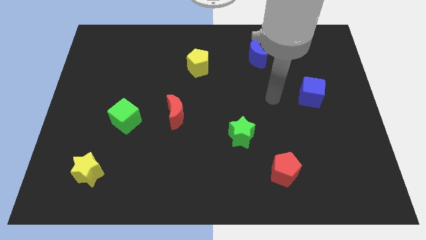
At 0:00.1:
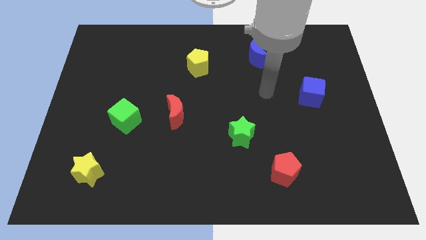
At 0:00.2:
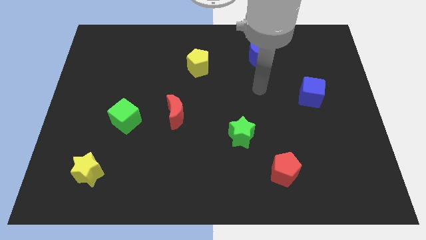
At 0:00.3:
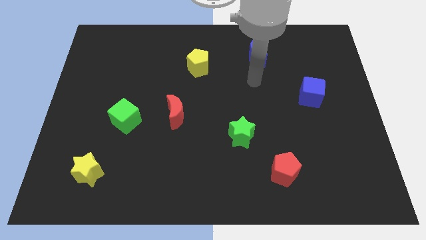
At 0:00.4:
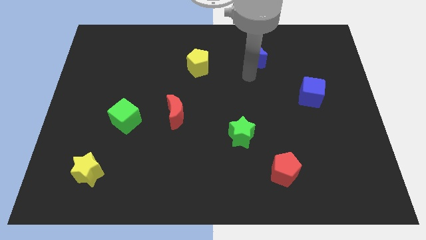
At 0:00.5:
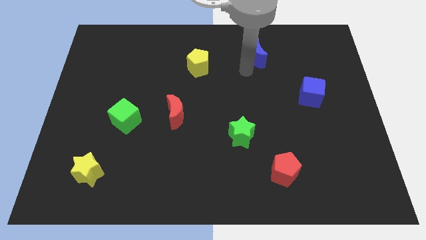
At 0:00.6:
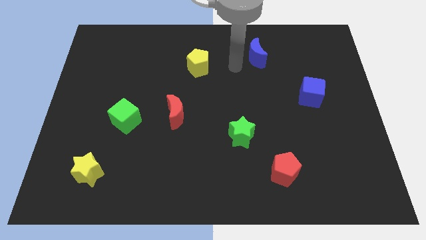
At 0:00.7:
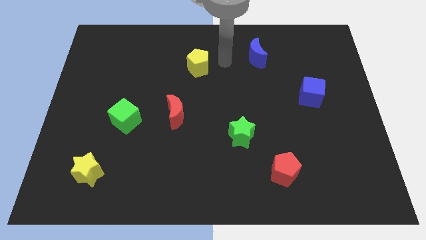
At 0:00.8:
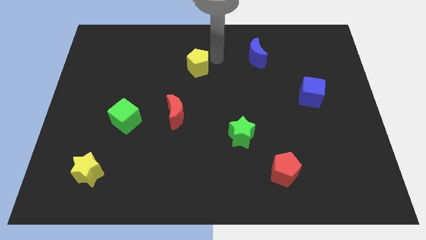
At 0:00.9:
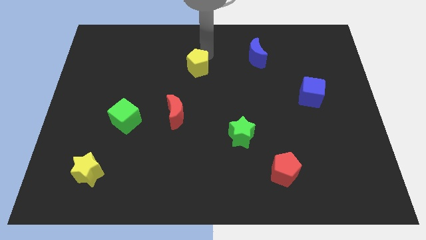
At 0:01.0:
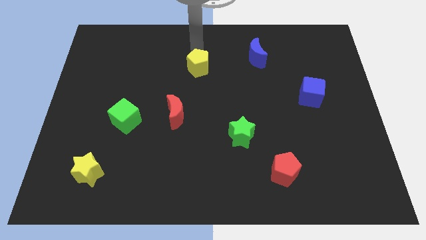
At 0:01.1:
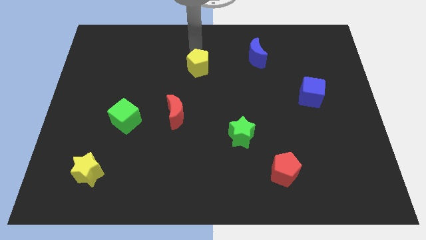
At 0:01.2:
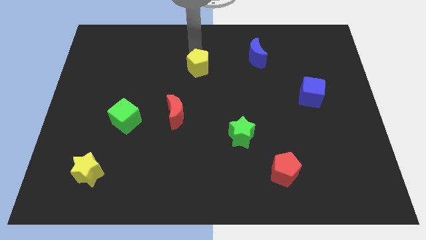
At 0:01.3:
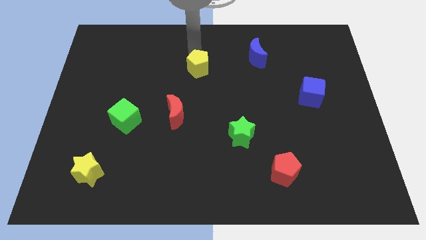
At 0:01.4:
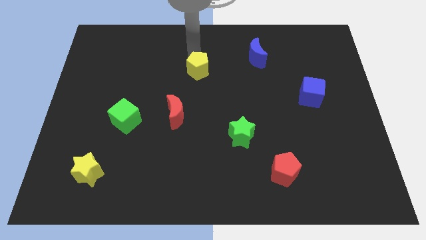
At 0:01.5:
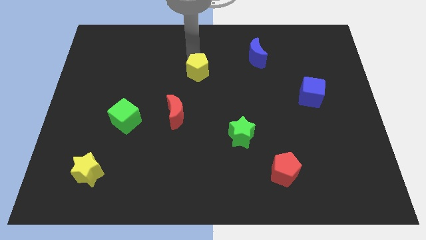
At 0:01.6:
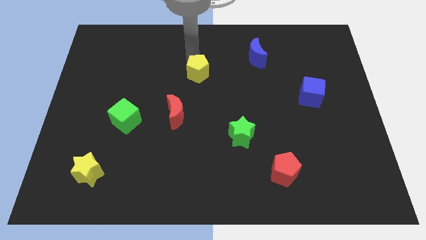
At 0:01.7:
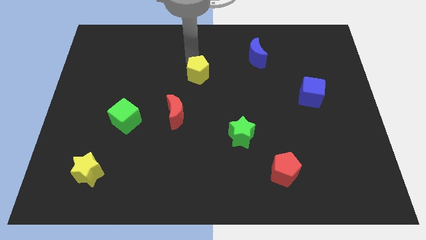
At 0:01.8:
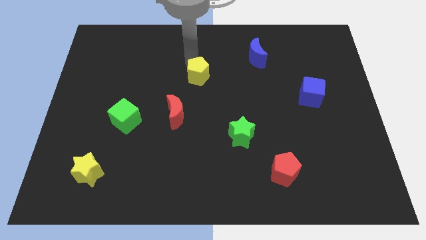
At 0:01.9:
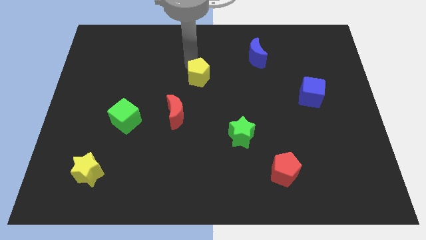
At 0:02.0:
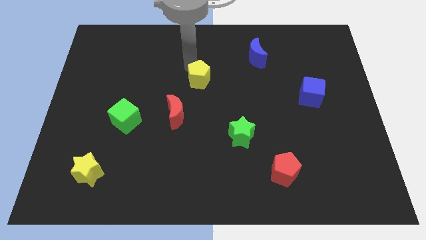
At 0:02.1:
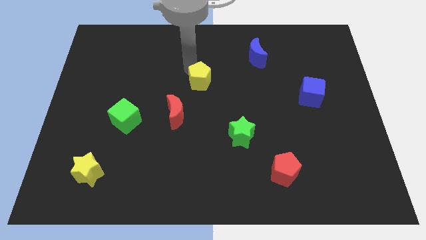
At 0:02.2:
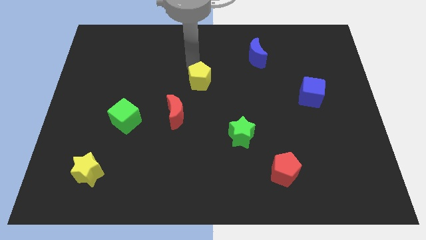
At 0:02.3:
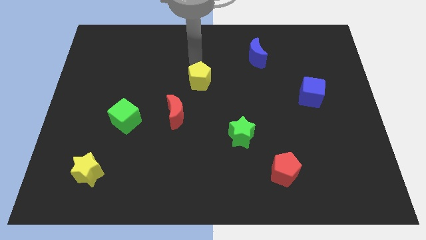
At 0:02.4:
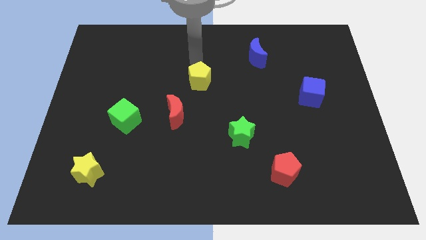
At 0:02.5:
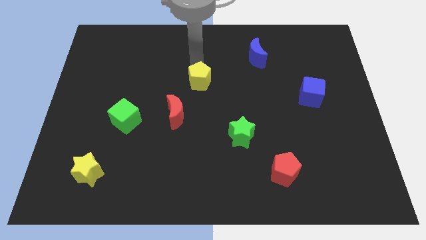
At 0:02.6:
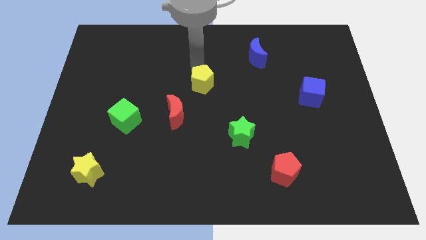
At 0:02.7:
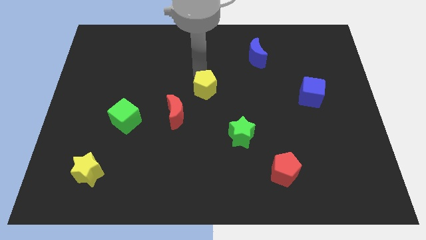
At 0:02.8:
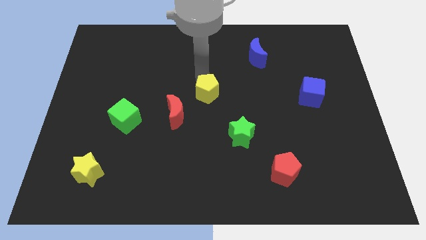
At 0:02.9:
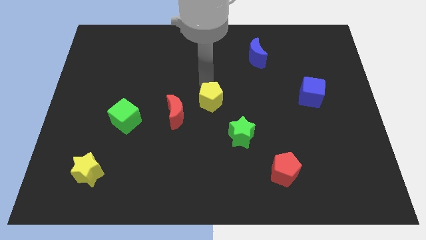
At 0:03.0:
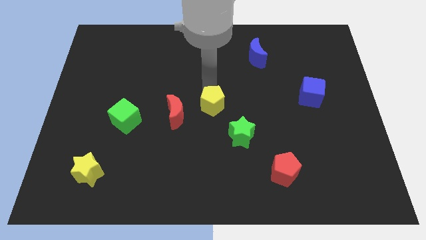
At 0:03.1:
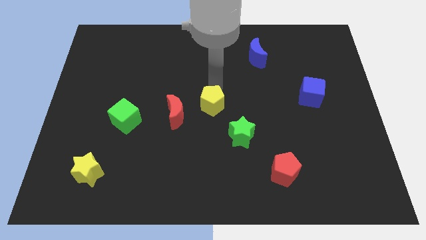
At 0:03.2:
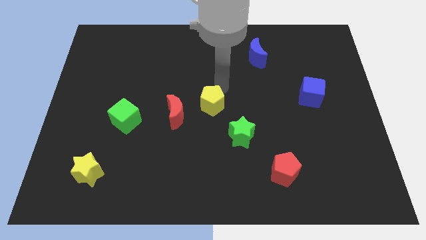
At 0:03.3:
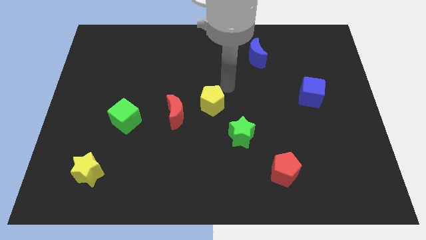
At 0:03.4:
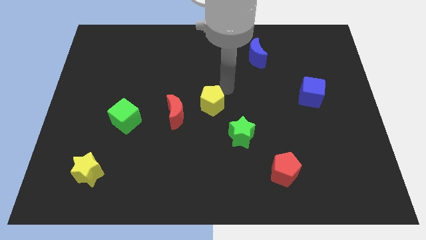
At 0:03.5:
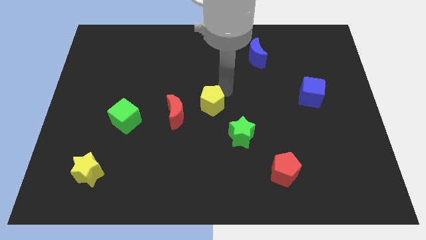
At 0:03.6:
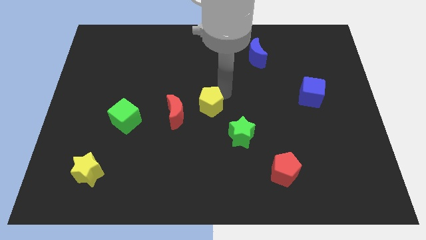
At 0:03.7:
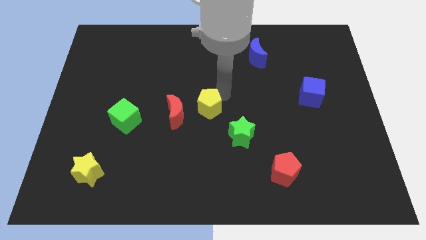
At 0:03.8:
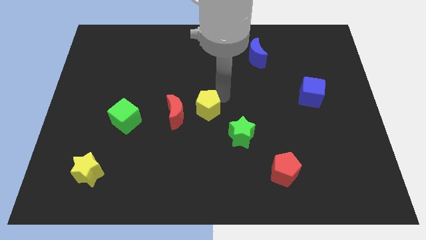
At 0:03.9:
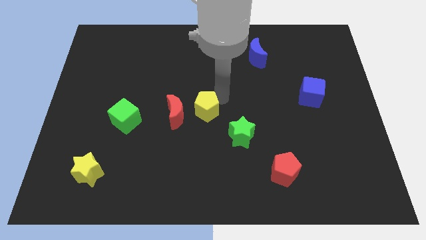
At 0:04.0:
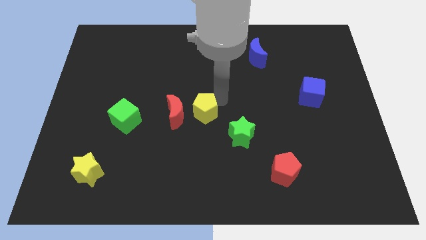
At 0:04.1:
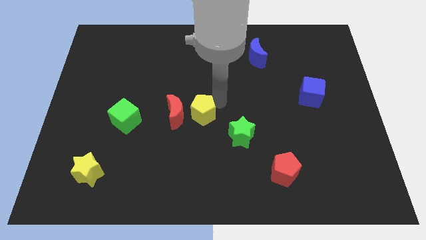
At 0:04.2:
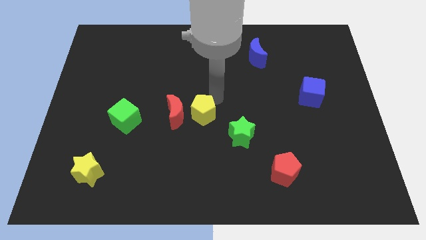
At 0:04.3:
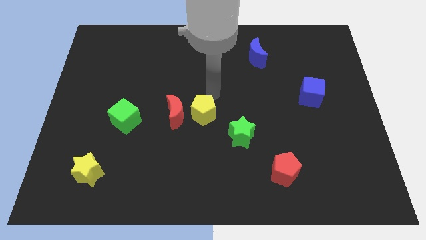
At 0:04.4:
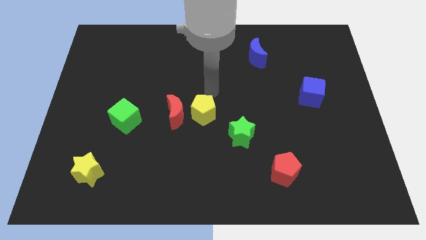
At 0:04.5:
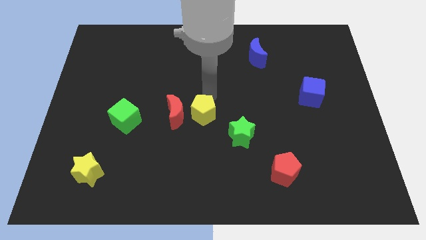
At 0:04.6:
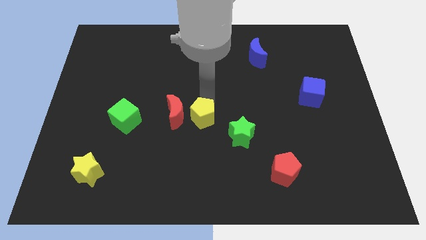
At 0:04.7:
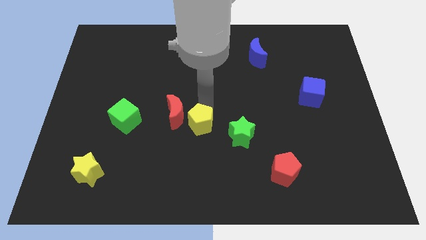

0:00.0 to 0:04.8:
move the yellow pentagon left of the green star

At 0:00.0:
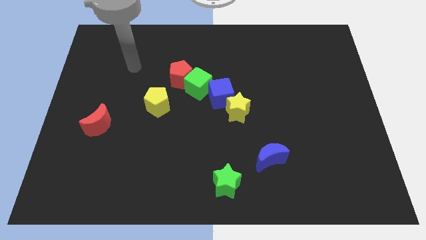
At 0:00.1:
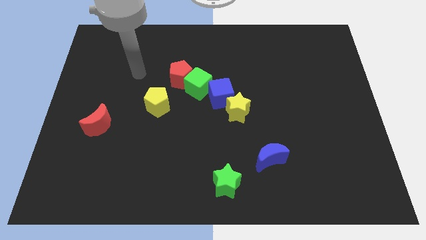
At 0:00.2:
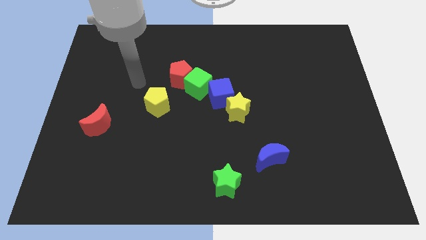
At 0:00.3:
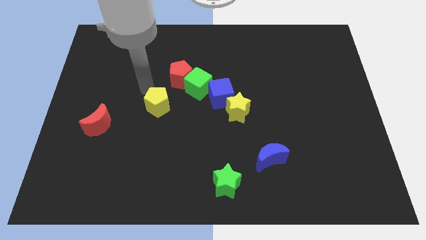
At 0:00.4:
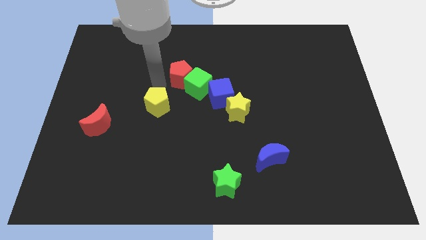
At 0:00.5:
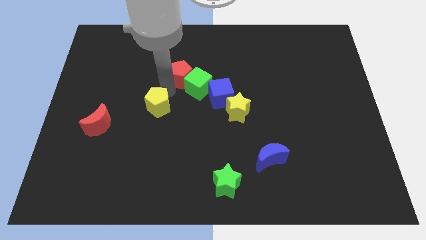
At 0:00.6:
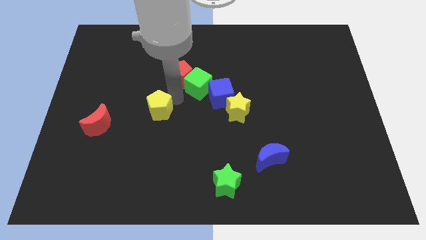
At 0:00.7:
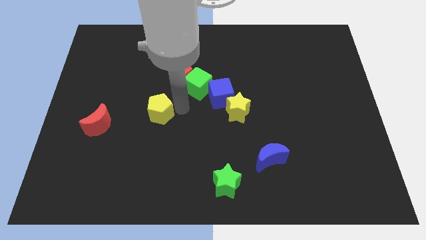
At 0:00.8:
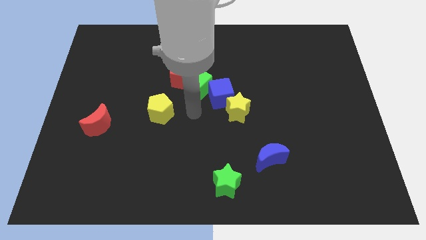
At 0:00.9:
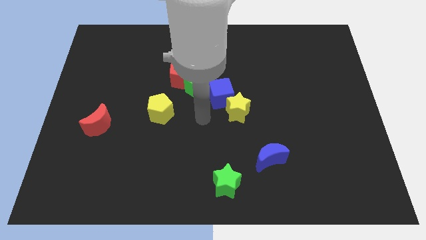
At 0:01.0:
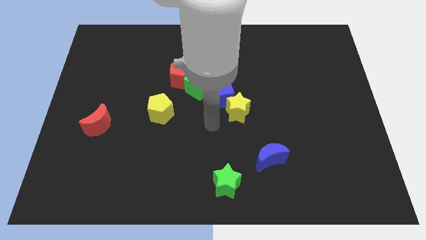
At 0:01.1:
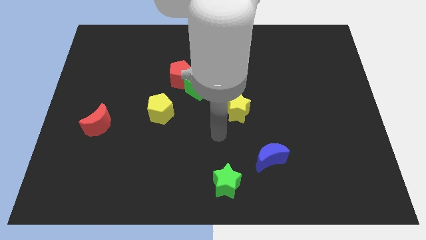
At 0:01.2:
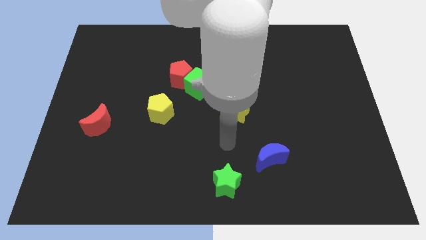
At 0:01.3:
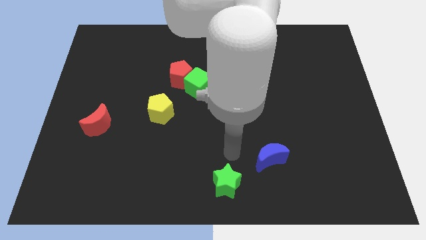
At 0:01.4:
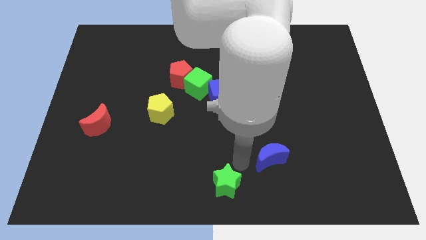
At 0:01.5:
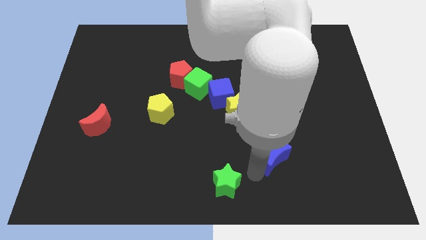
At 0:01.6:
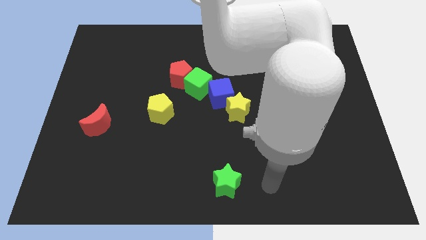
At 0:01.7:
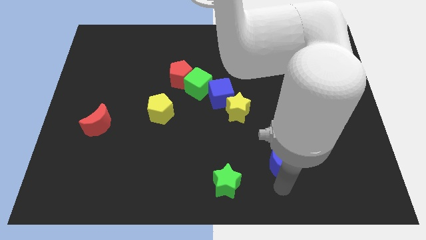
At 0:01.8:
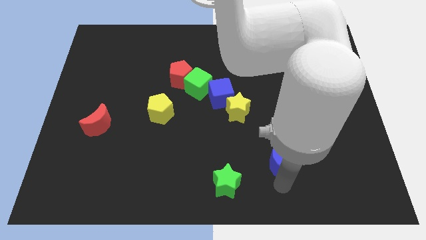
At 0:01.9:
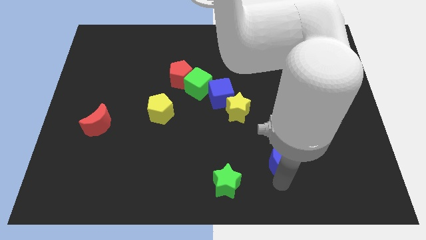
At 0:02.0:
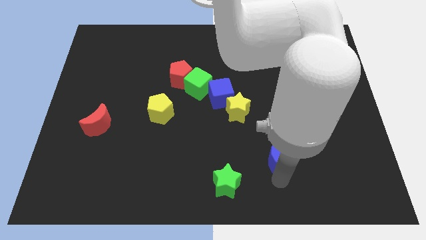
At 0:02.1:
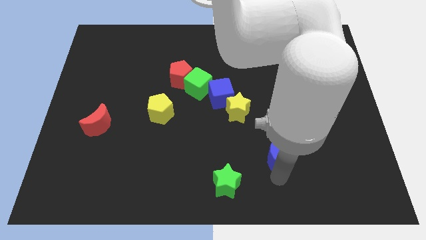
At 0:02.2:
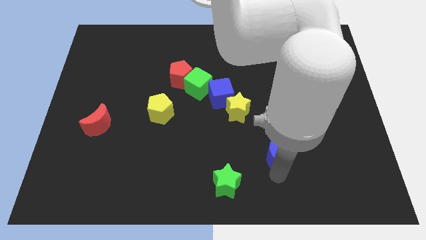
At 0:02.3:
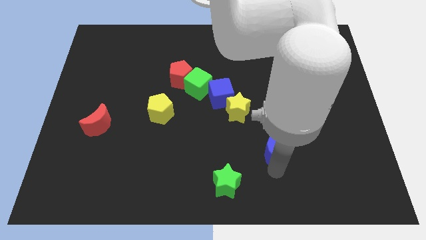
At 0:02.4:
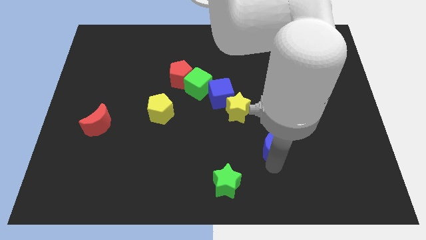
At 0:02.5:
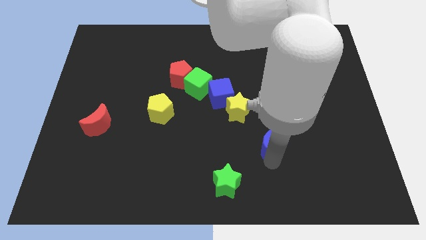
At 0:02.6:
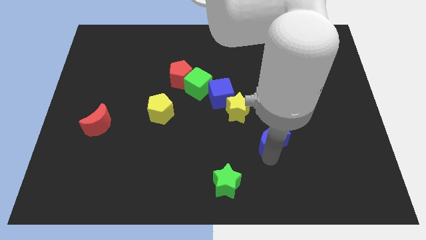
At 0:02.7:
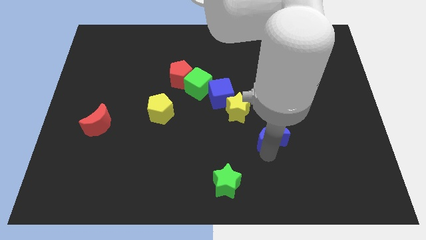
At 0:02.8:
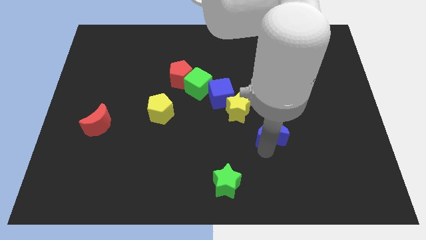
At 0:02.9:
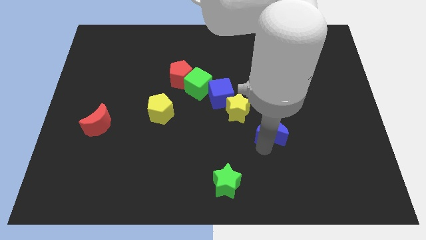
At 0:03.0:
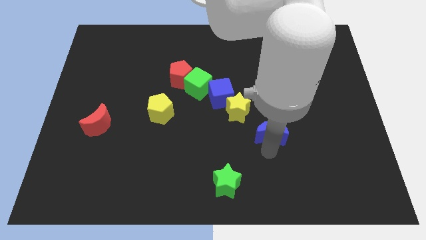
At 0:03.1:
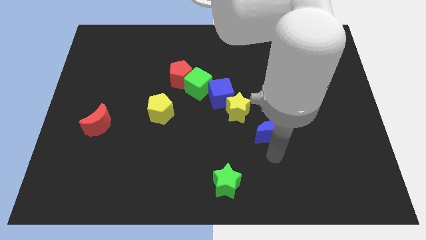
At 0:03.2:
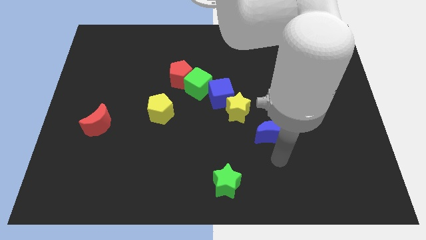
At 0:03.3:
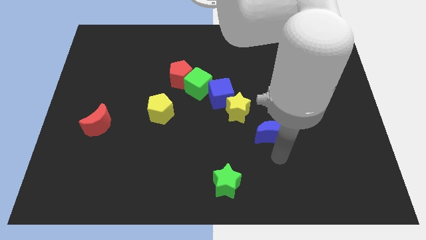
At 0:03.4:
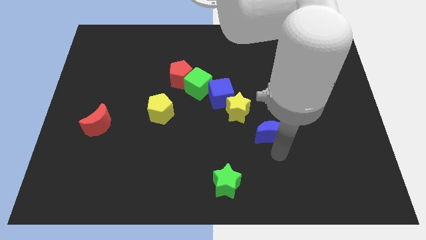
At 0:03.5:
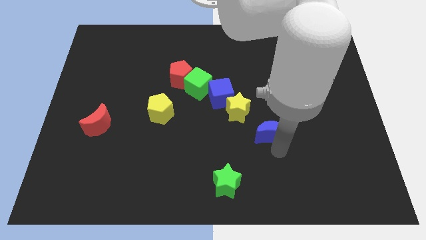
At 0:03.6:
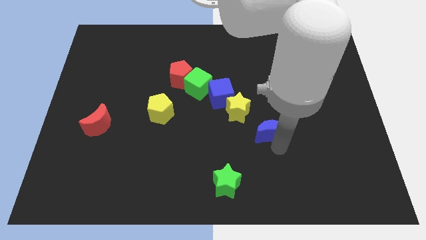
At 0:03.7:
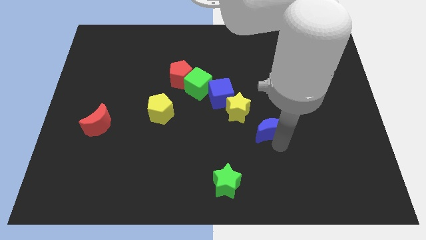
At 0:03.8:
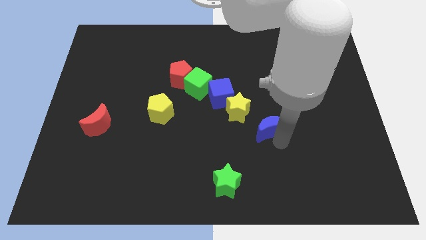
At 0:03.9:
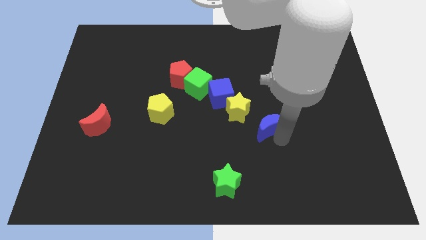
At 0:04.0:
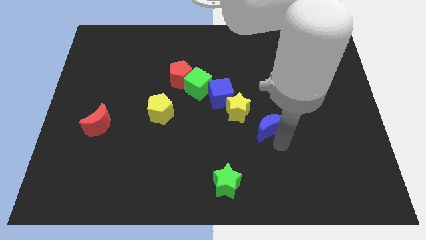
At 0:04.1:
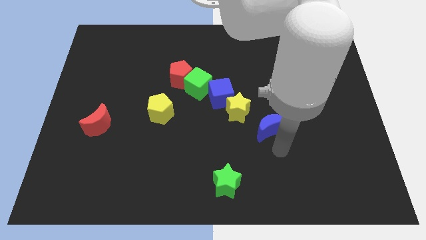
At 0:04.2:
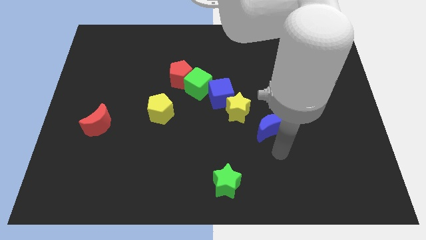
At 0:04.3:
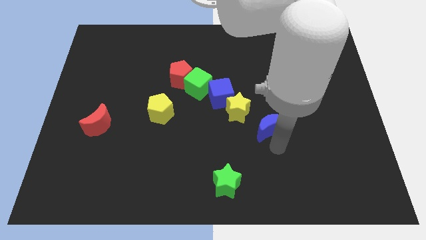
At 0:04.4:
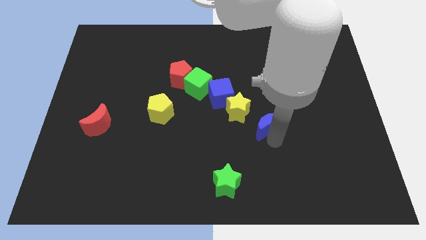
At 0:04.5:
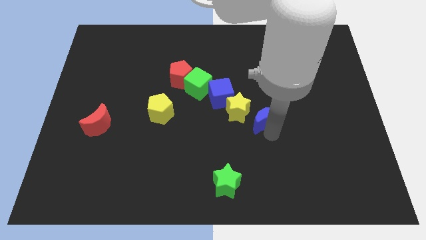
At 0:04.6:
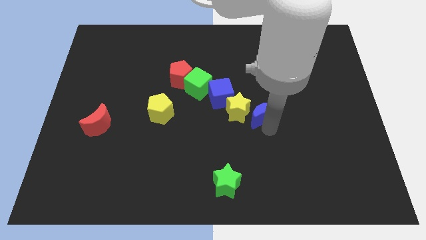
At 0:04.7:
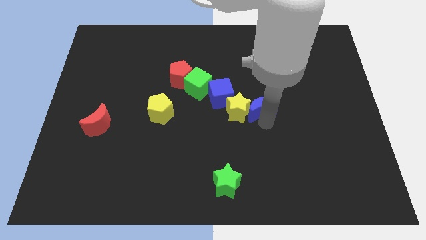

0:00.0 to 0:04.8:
slide the blue moon to the top right side of the yellow star
